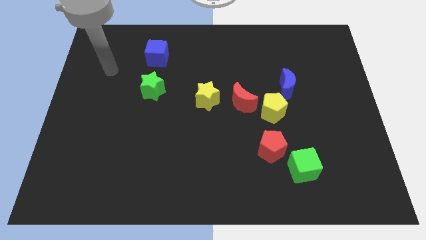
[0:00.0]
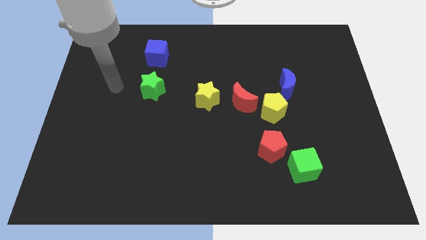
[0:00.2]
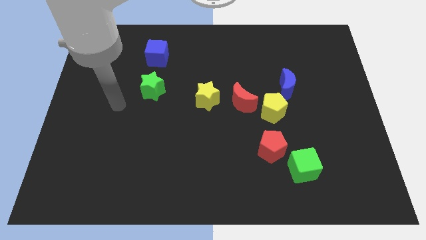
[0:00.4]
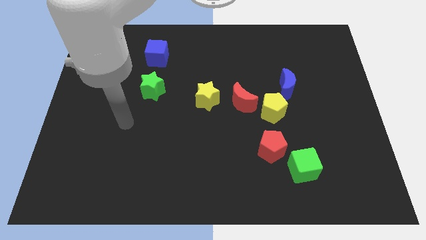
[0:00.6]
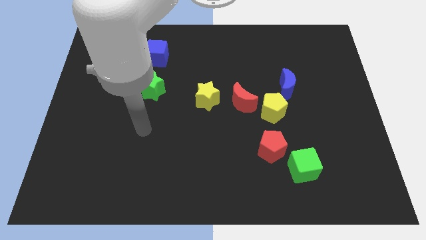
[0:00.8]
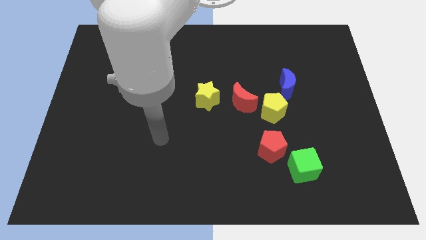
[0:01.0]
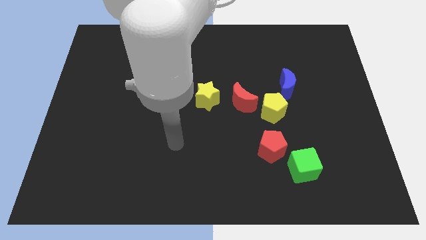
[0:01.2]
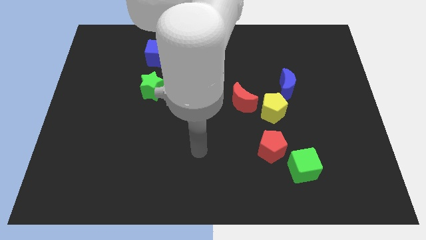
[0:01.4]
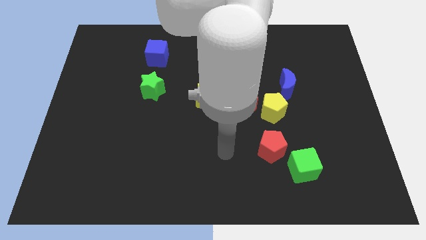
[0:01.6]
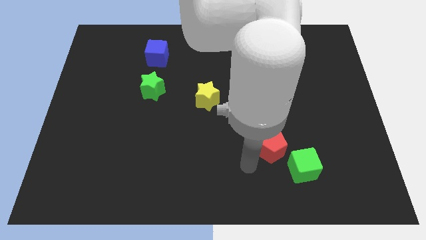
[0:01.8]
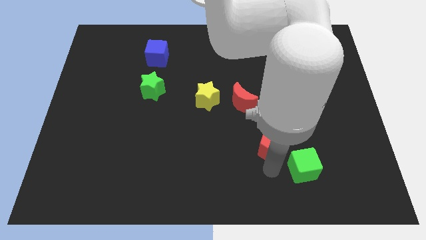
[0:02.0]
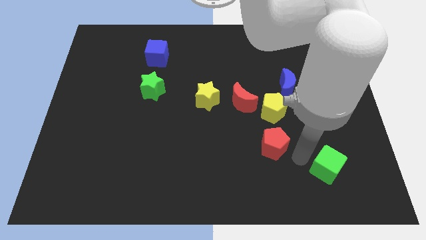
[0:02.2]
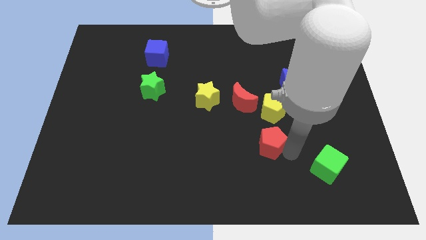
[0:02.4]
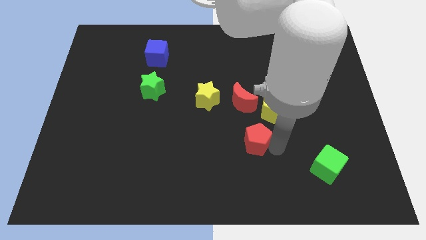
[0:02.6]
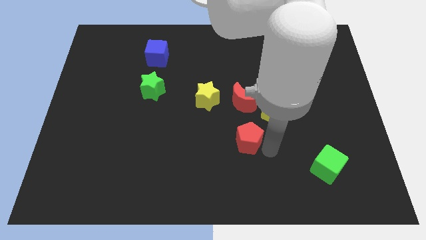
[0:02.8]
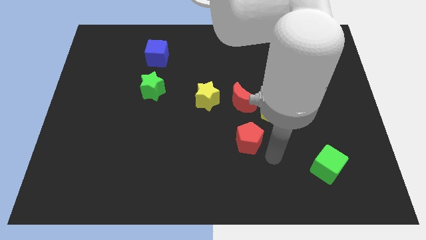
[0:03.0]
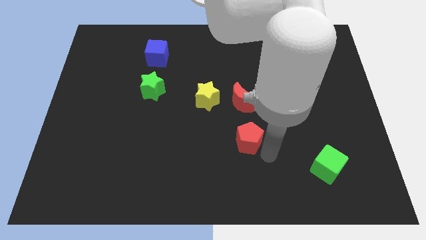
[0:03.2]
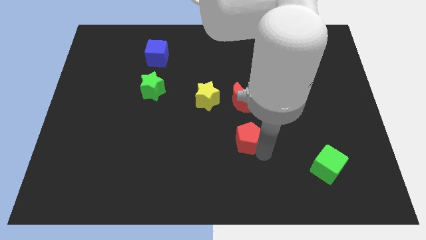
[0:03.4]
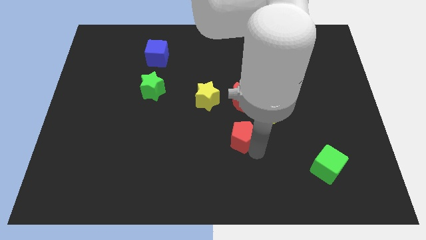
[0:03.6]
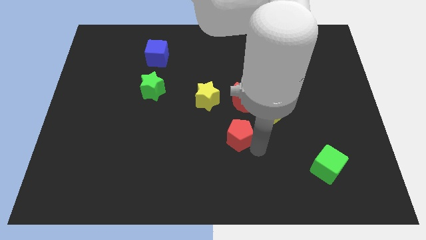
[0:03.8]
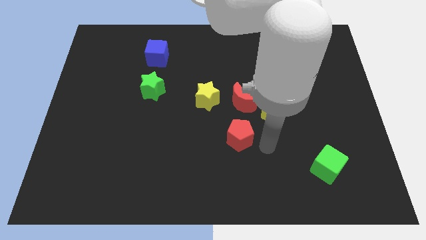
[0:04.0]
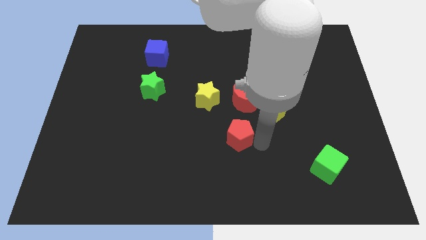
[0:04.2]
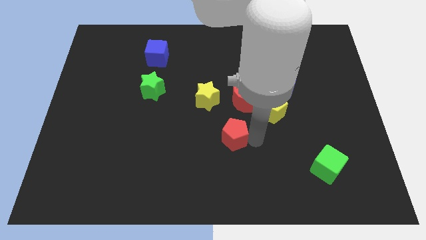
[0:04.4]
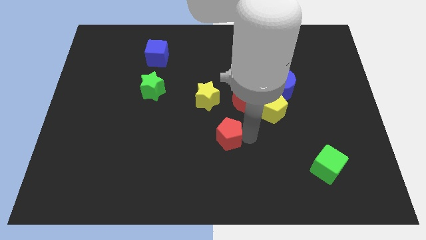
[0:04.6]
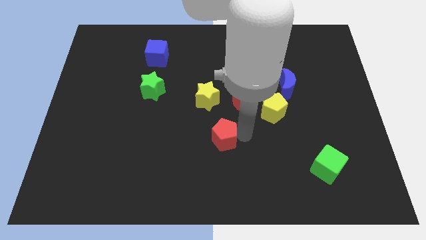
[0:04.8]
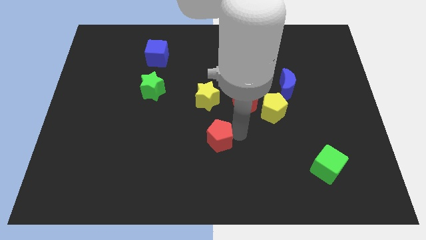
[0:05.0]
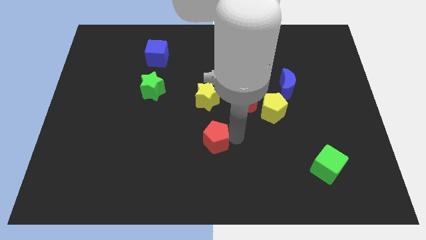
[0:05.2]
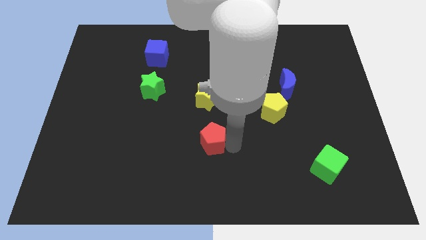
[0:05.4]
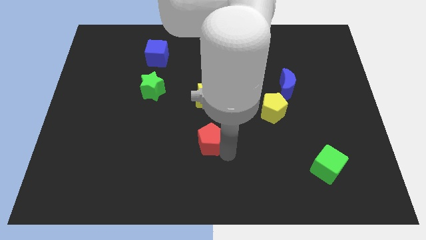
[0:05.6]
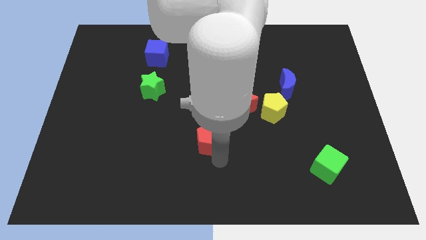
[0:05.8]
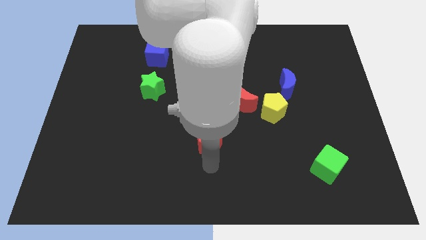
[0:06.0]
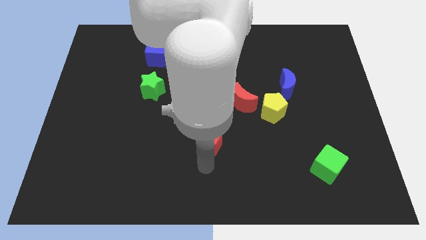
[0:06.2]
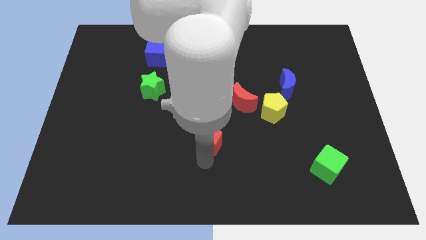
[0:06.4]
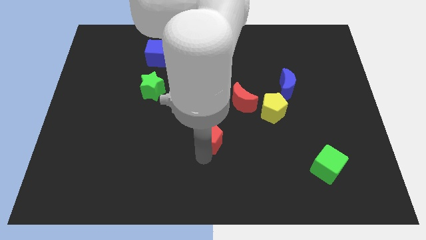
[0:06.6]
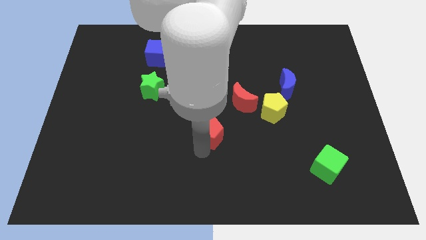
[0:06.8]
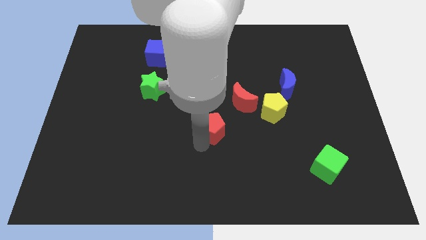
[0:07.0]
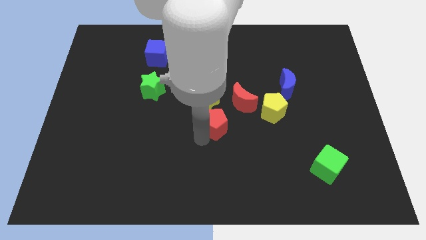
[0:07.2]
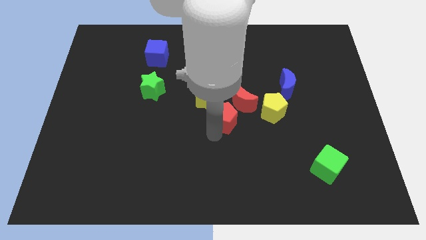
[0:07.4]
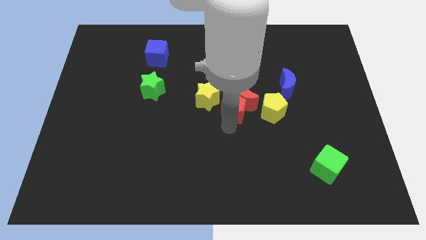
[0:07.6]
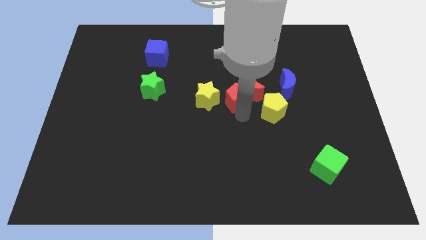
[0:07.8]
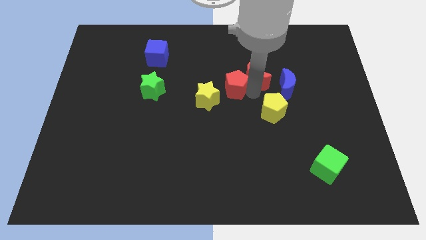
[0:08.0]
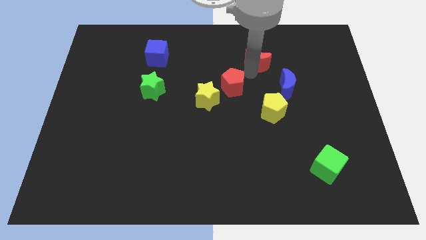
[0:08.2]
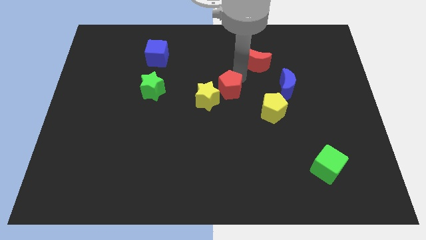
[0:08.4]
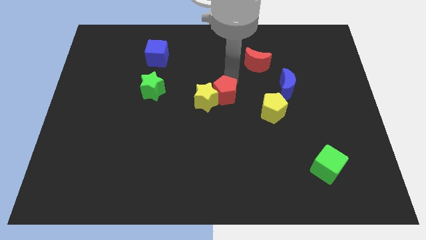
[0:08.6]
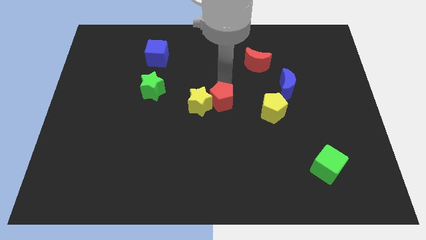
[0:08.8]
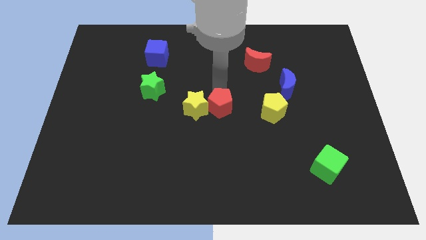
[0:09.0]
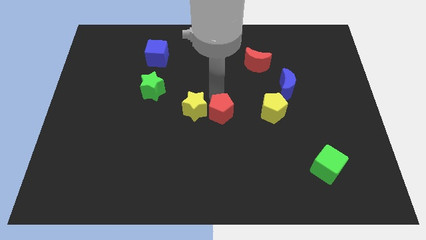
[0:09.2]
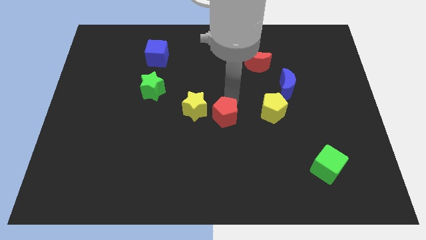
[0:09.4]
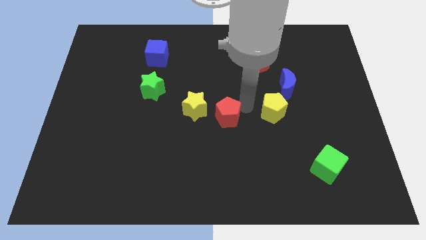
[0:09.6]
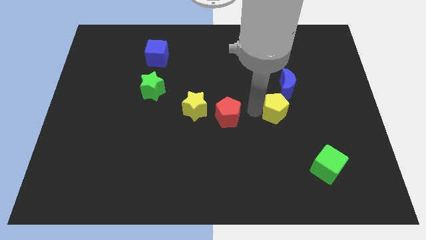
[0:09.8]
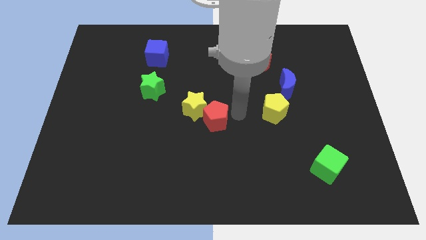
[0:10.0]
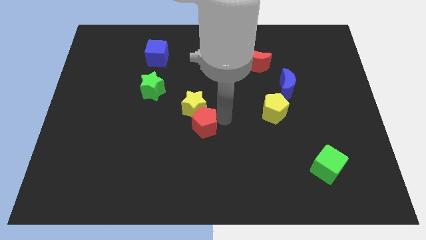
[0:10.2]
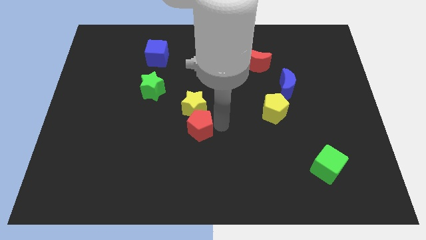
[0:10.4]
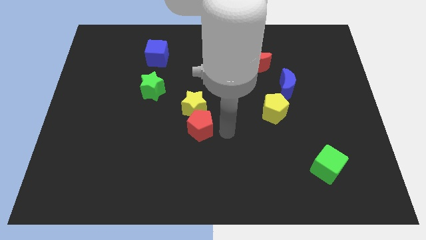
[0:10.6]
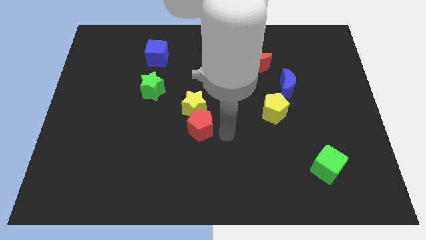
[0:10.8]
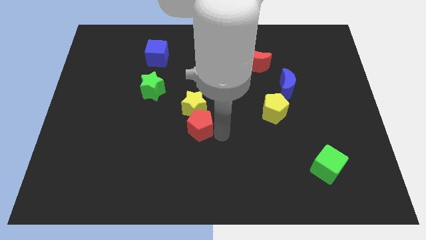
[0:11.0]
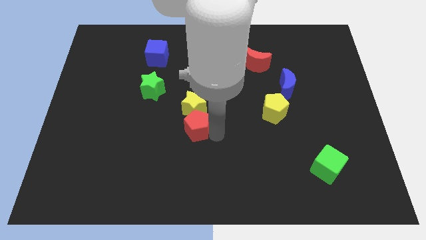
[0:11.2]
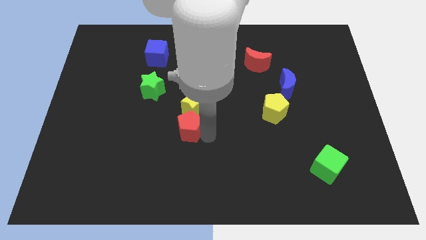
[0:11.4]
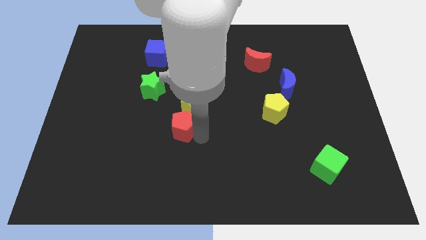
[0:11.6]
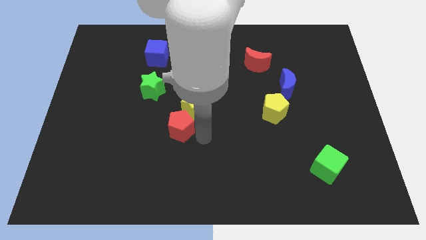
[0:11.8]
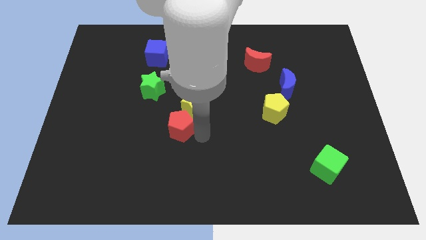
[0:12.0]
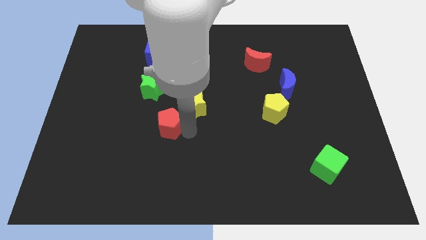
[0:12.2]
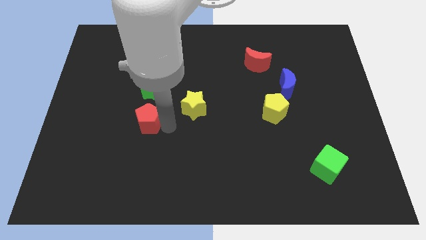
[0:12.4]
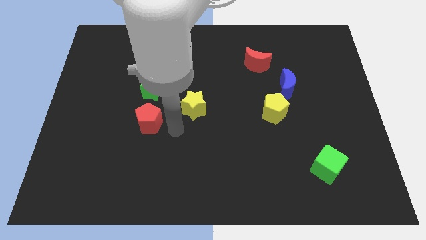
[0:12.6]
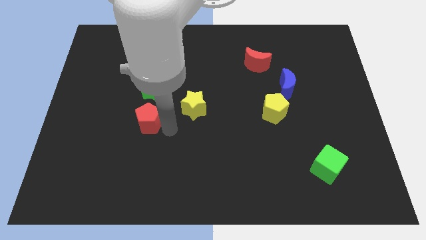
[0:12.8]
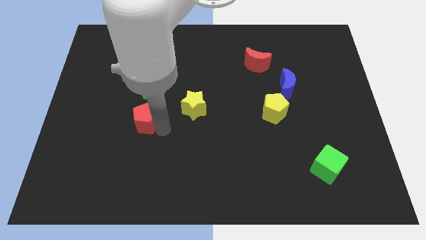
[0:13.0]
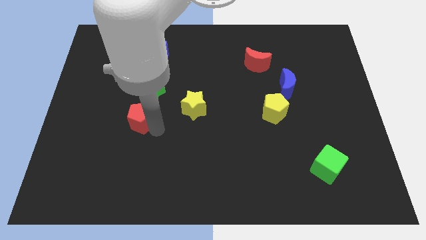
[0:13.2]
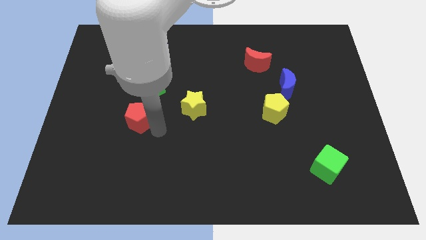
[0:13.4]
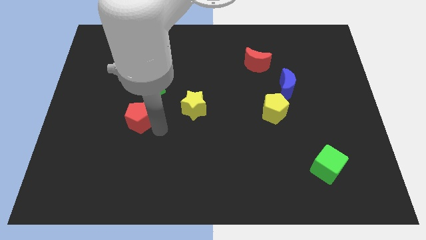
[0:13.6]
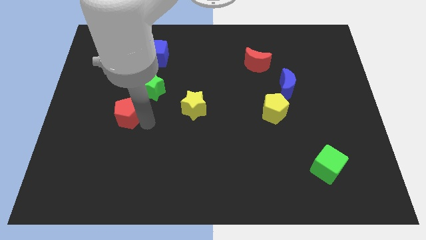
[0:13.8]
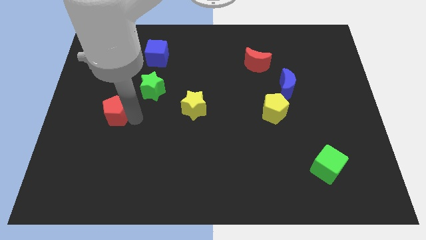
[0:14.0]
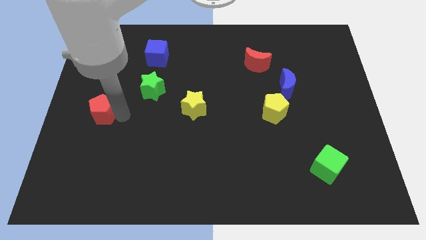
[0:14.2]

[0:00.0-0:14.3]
slide the red pentagon to the center left
